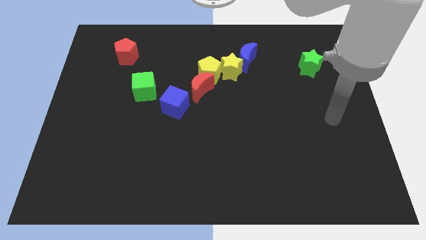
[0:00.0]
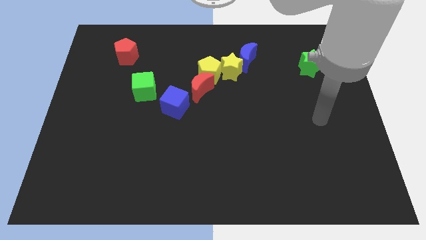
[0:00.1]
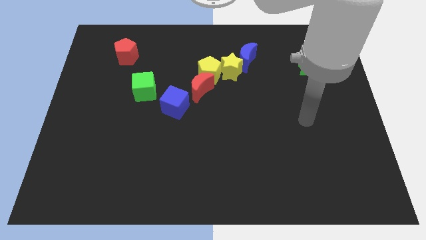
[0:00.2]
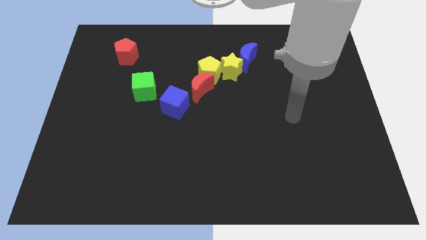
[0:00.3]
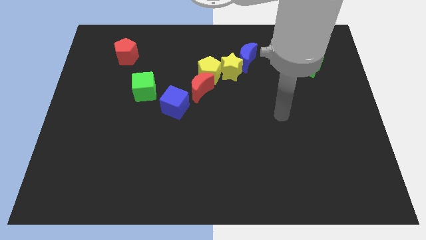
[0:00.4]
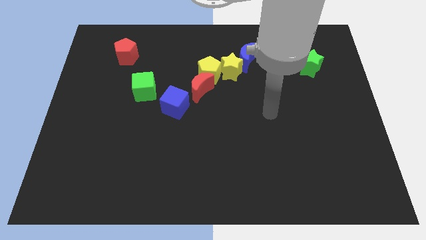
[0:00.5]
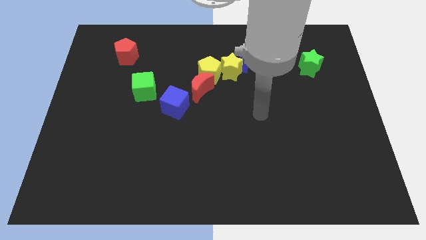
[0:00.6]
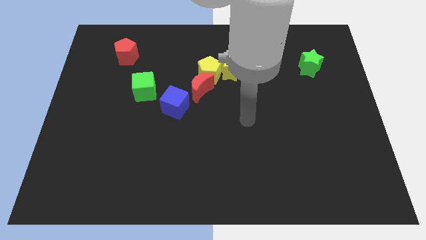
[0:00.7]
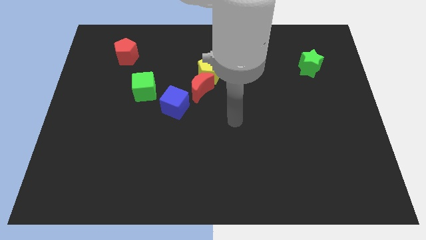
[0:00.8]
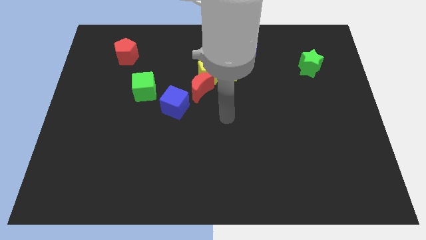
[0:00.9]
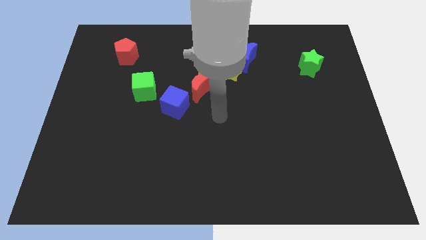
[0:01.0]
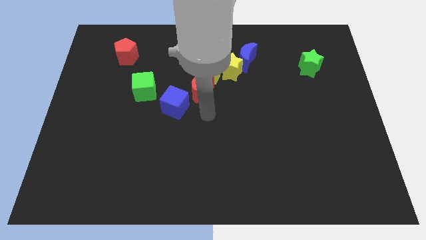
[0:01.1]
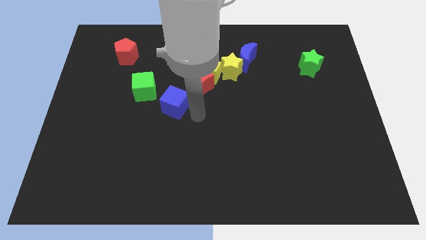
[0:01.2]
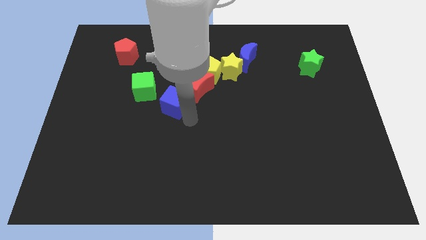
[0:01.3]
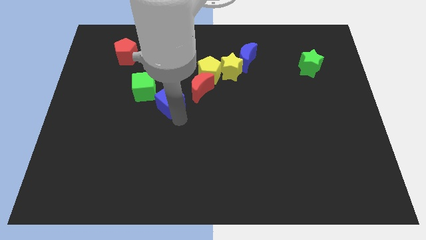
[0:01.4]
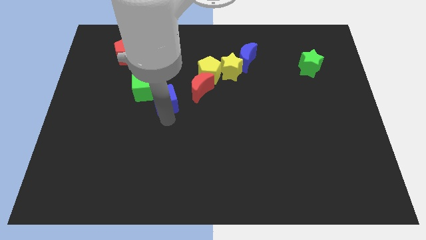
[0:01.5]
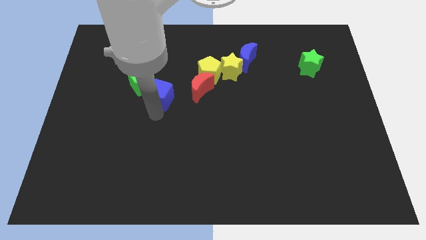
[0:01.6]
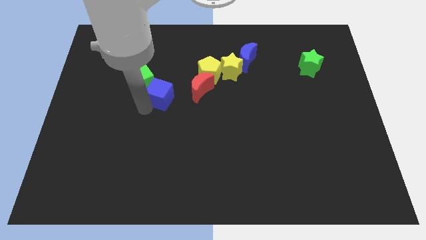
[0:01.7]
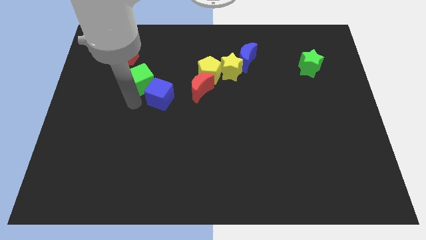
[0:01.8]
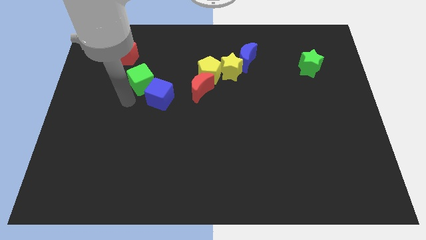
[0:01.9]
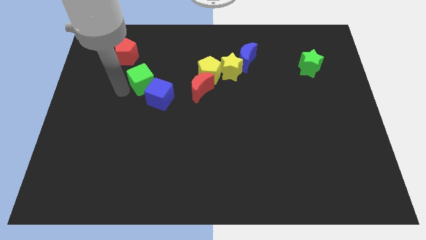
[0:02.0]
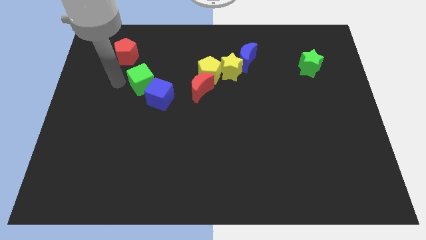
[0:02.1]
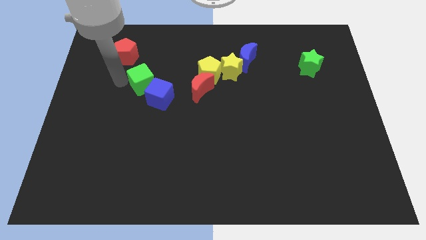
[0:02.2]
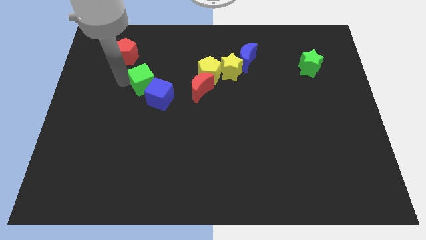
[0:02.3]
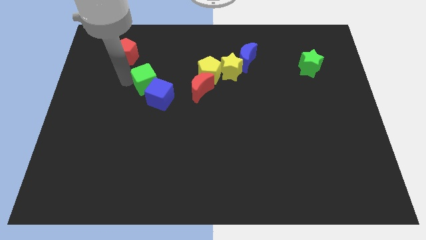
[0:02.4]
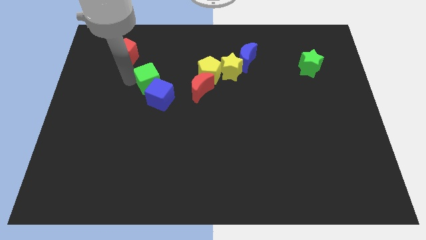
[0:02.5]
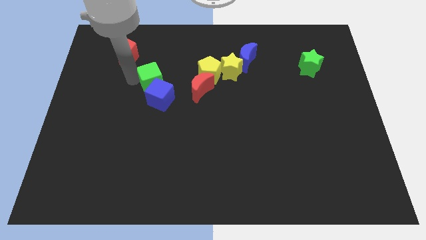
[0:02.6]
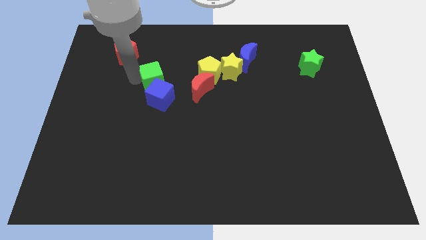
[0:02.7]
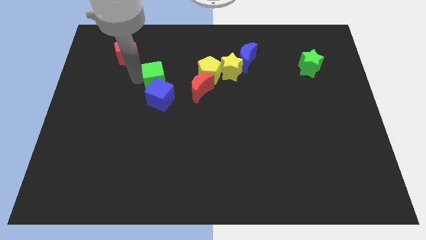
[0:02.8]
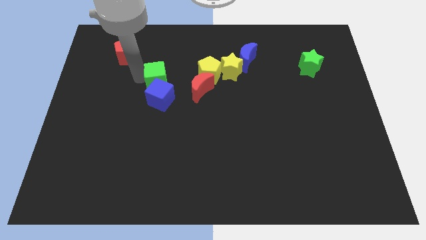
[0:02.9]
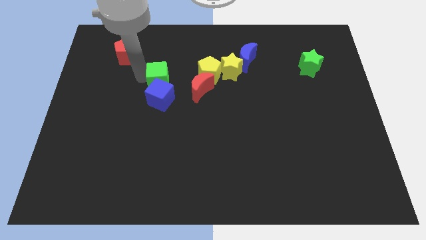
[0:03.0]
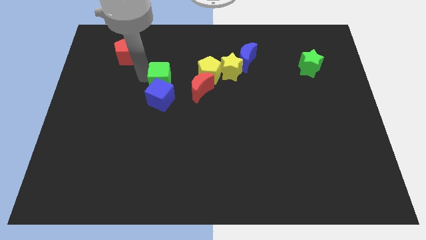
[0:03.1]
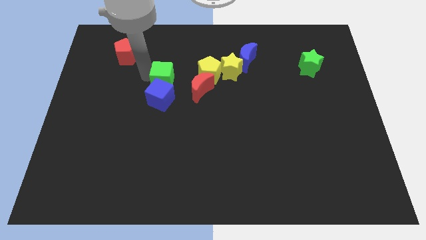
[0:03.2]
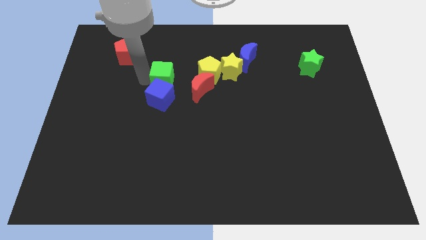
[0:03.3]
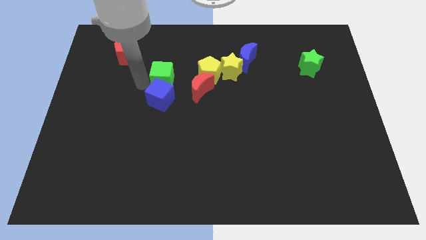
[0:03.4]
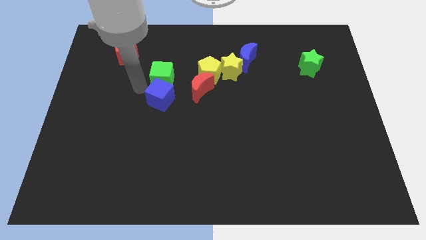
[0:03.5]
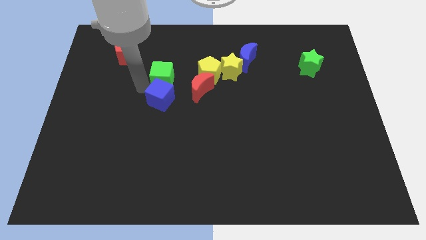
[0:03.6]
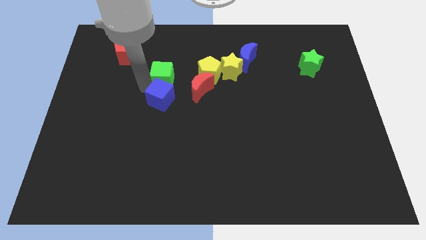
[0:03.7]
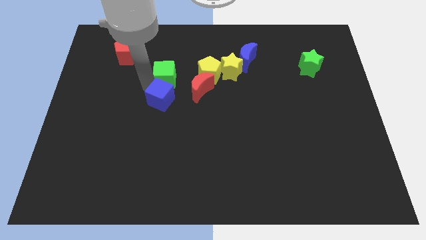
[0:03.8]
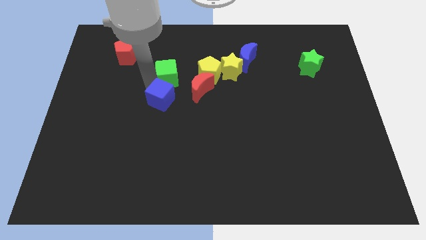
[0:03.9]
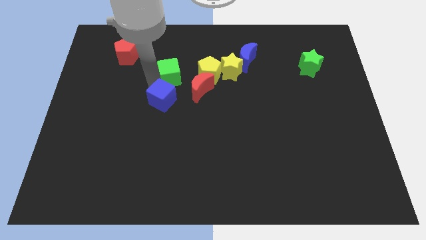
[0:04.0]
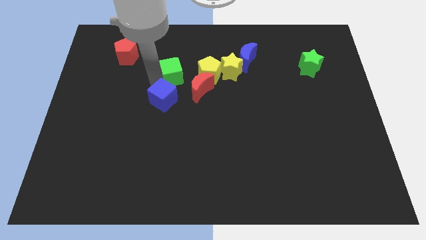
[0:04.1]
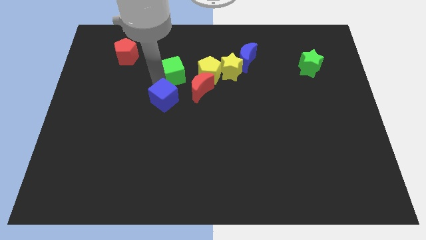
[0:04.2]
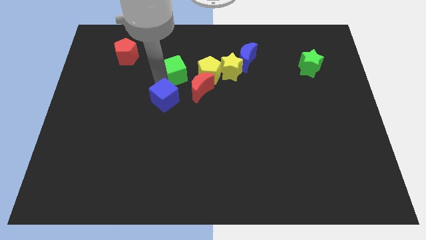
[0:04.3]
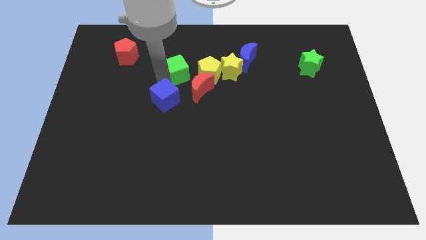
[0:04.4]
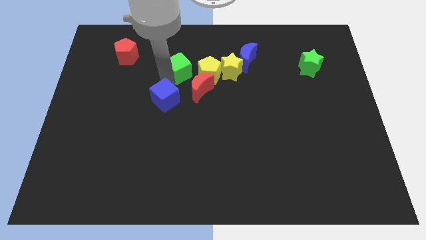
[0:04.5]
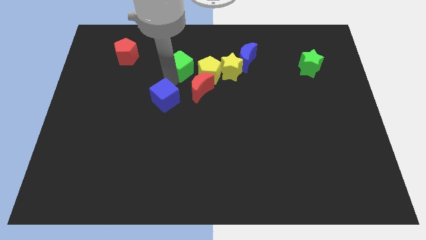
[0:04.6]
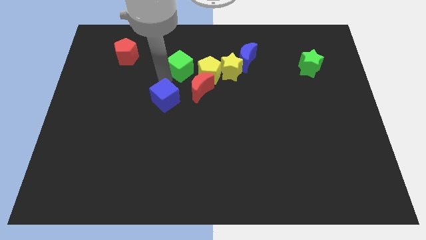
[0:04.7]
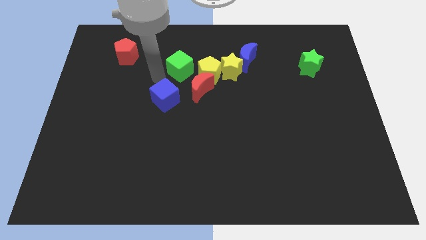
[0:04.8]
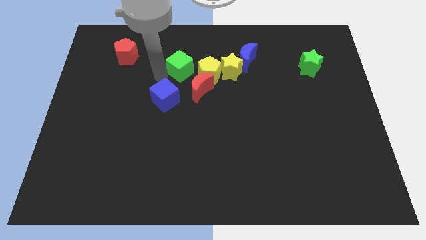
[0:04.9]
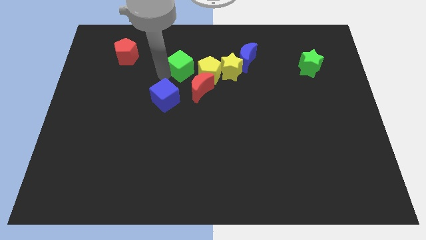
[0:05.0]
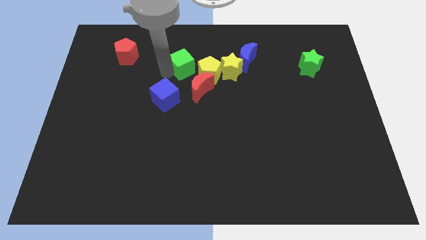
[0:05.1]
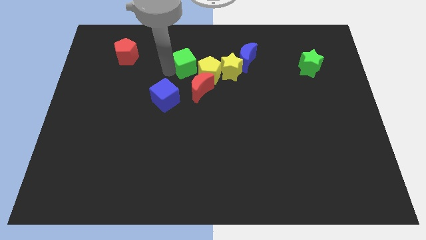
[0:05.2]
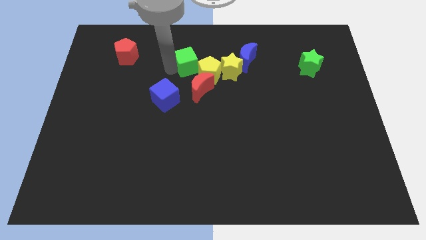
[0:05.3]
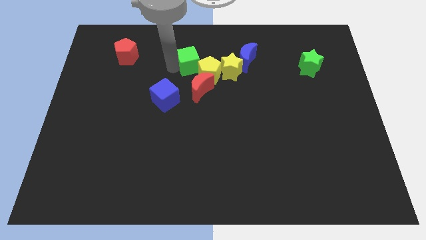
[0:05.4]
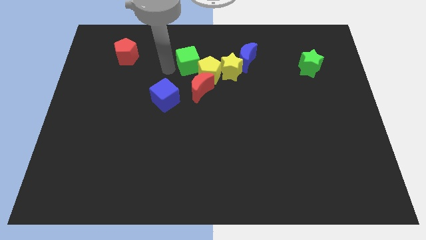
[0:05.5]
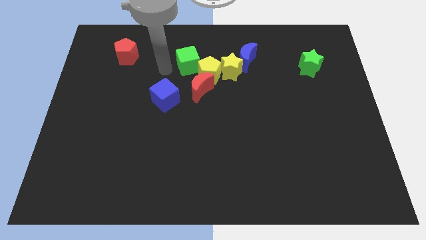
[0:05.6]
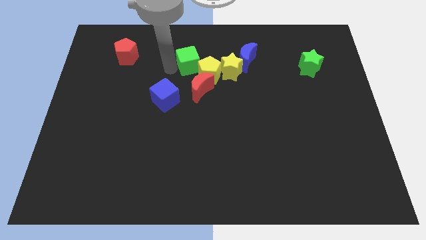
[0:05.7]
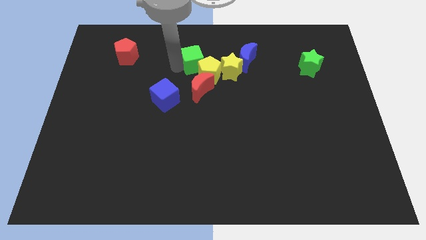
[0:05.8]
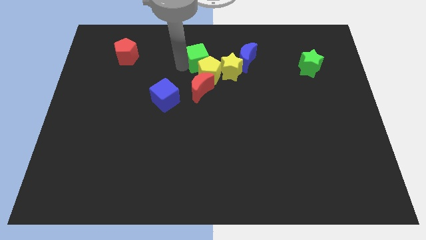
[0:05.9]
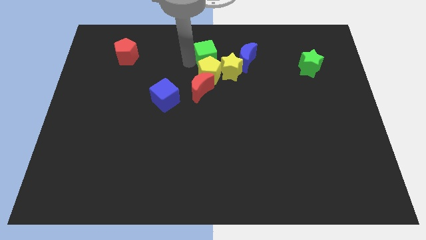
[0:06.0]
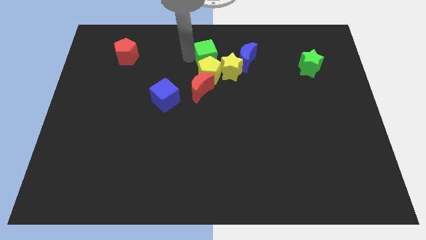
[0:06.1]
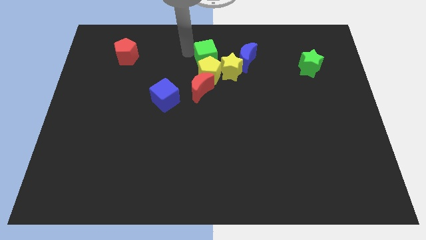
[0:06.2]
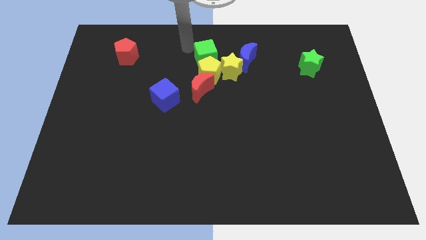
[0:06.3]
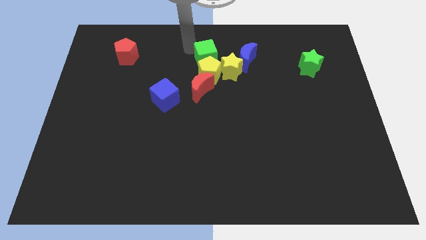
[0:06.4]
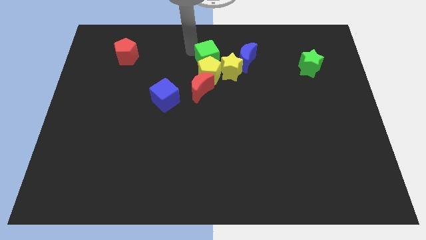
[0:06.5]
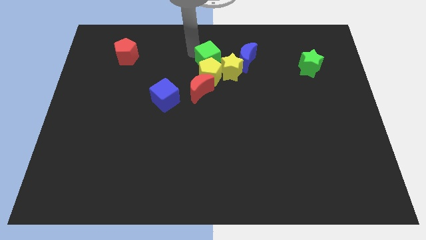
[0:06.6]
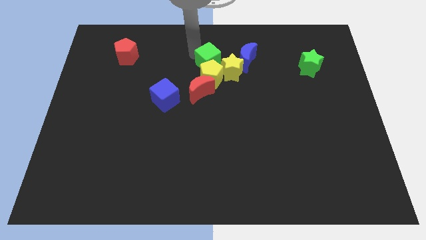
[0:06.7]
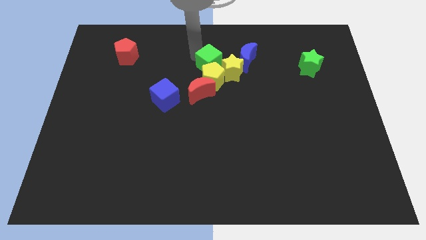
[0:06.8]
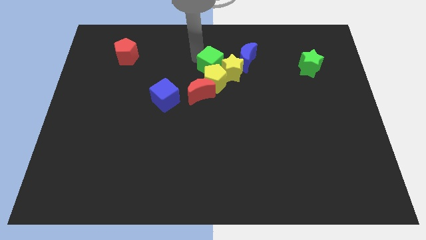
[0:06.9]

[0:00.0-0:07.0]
push the green cube to the yellow star
